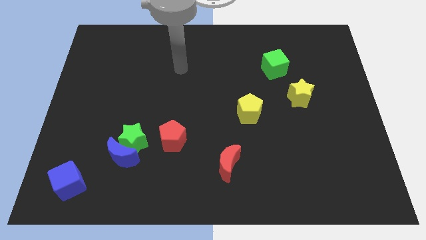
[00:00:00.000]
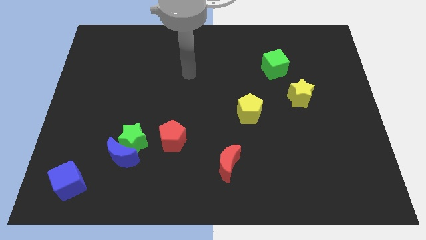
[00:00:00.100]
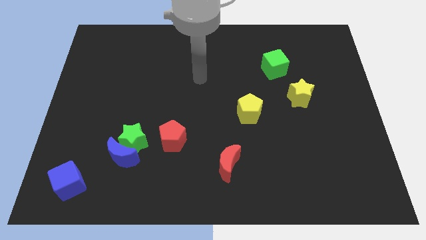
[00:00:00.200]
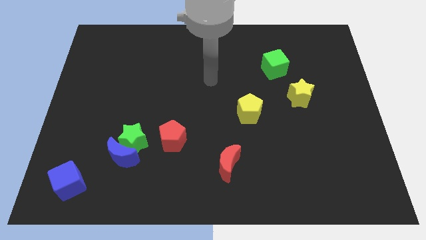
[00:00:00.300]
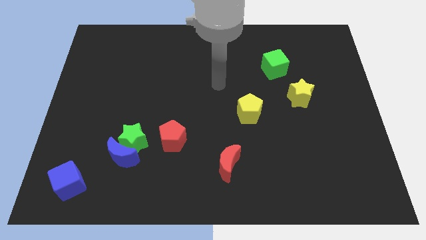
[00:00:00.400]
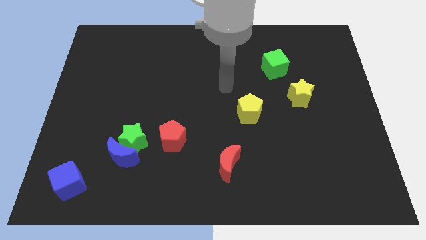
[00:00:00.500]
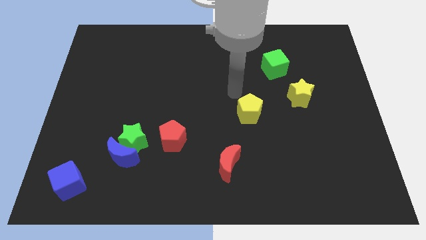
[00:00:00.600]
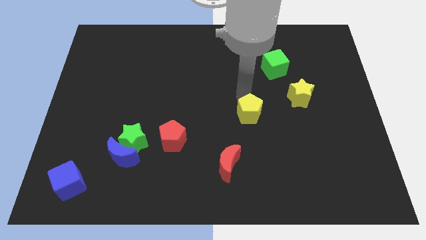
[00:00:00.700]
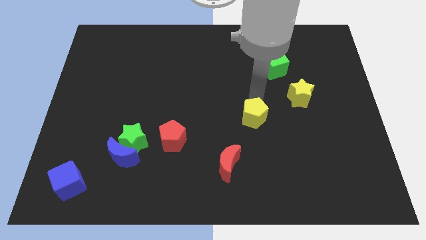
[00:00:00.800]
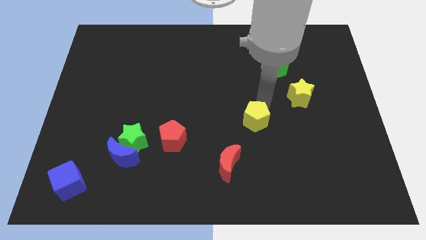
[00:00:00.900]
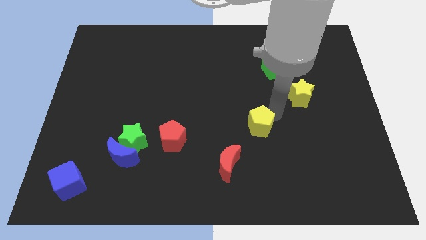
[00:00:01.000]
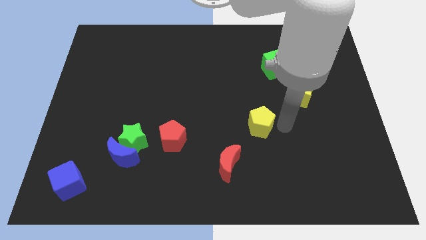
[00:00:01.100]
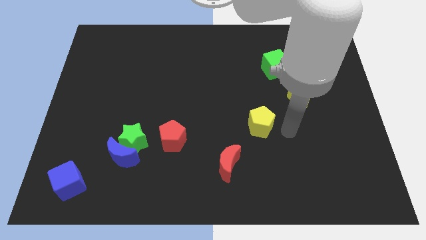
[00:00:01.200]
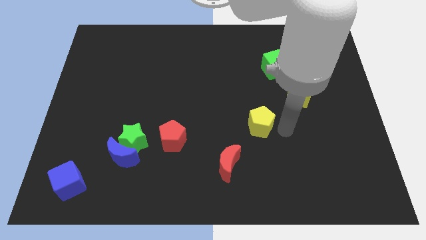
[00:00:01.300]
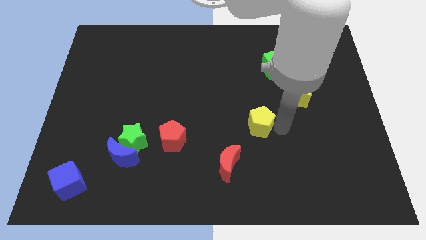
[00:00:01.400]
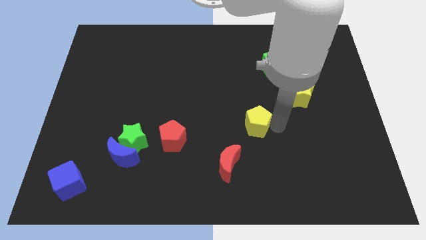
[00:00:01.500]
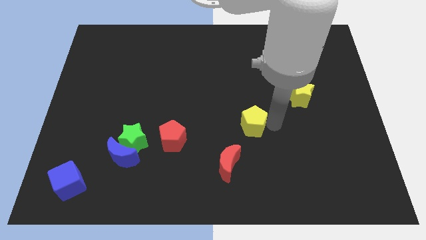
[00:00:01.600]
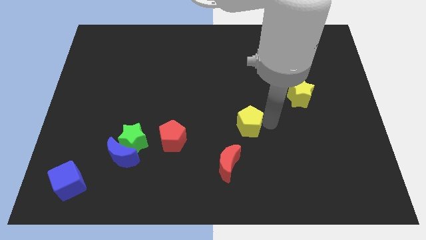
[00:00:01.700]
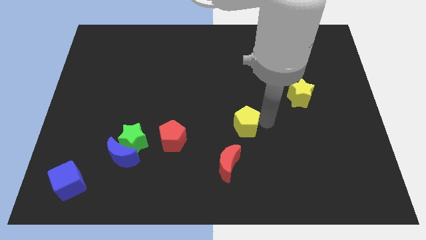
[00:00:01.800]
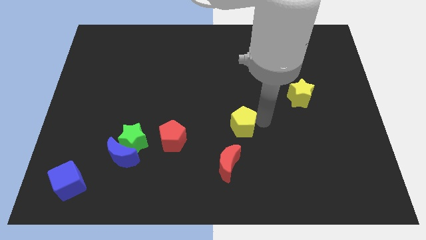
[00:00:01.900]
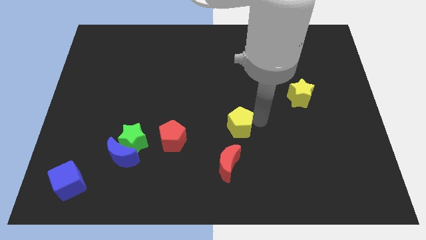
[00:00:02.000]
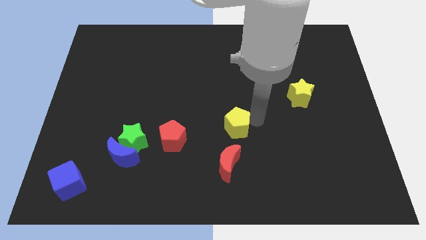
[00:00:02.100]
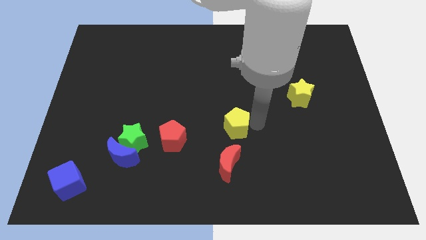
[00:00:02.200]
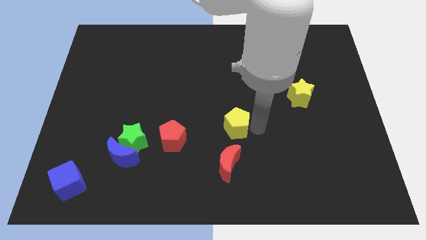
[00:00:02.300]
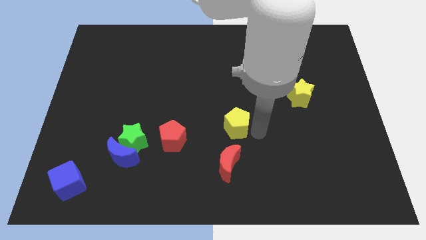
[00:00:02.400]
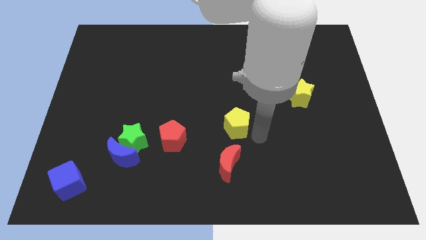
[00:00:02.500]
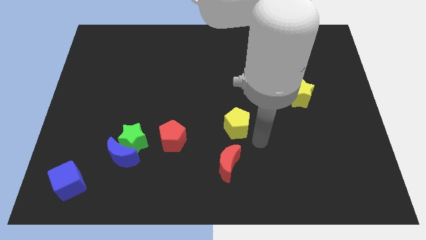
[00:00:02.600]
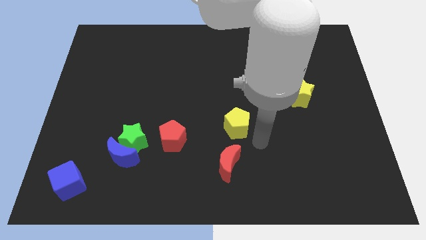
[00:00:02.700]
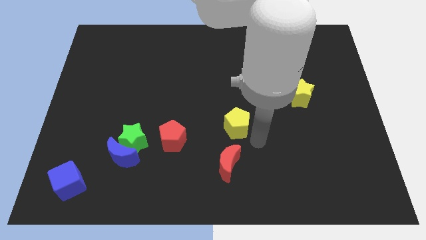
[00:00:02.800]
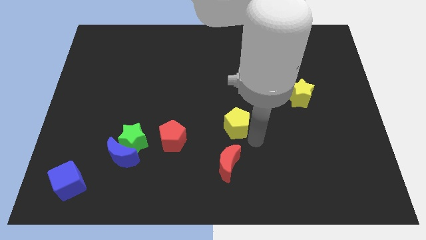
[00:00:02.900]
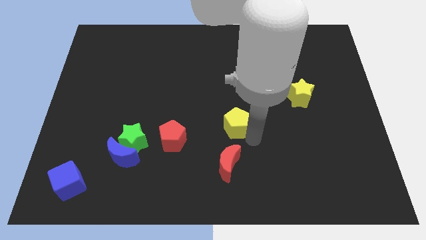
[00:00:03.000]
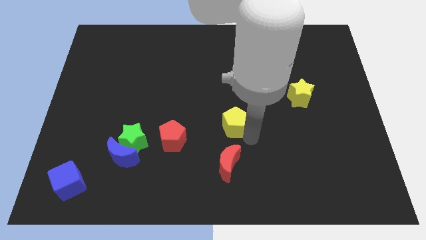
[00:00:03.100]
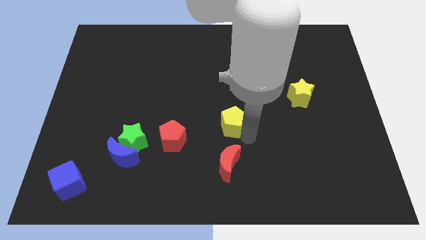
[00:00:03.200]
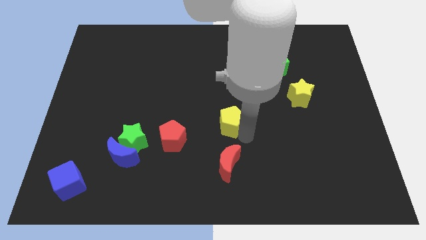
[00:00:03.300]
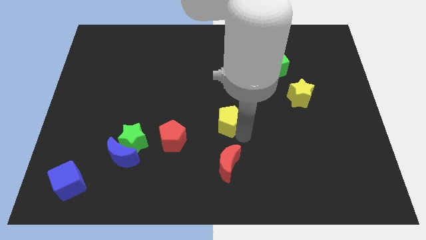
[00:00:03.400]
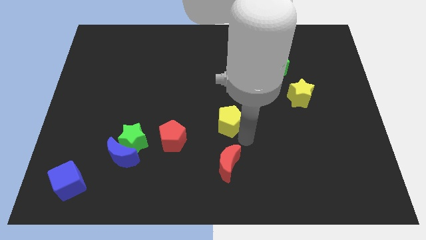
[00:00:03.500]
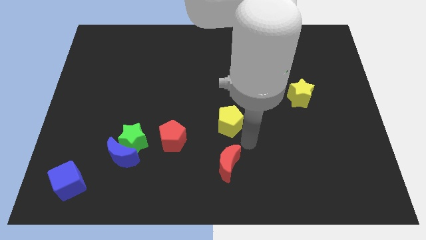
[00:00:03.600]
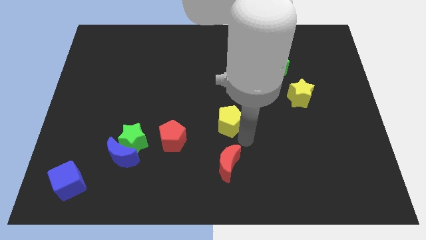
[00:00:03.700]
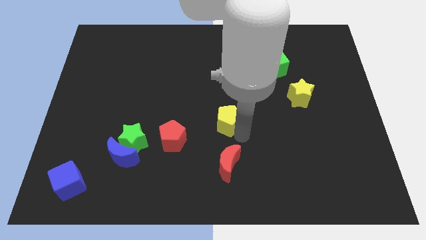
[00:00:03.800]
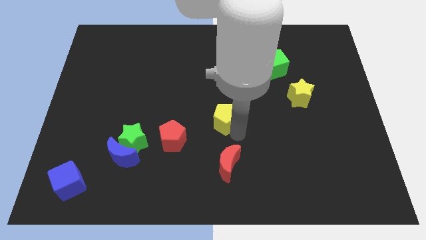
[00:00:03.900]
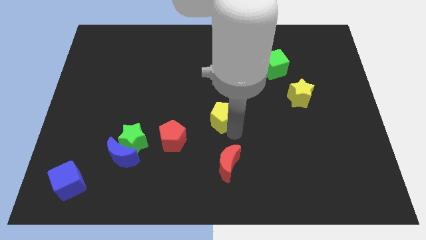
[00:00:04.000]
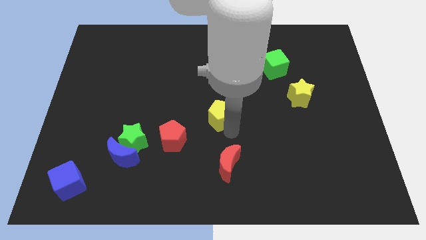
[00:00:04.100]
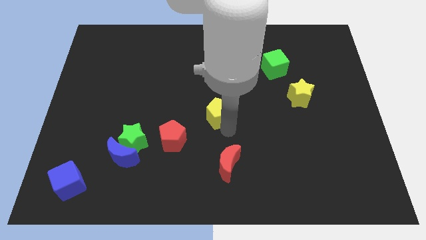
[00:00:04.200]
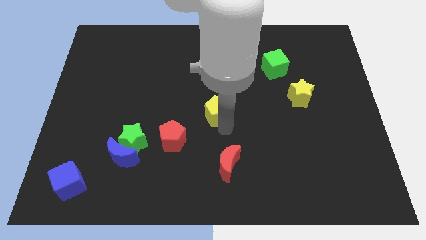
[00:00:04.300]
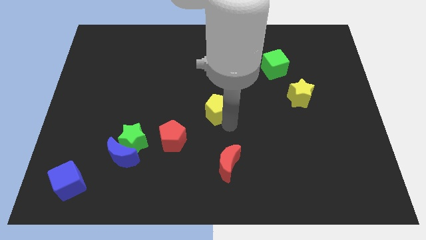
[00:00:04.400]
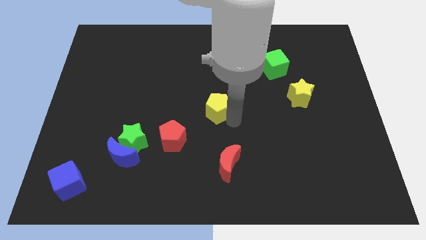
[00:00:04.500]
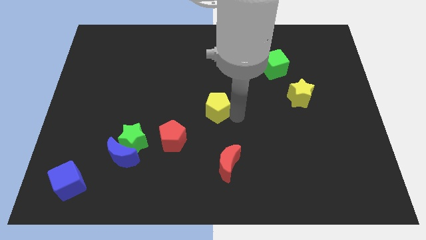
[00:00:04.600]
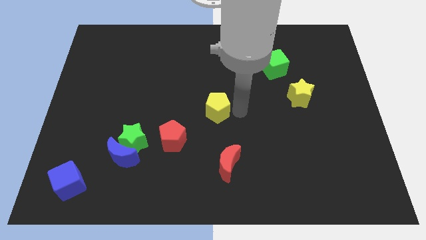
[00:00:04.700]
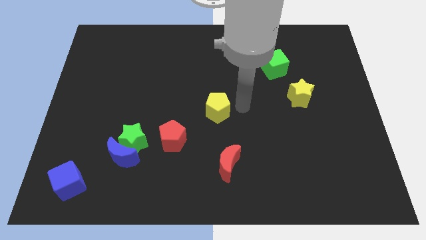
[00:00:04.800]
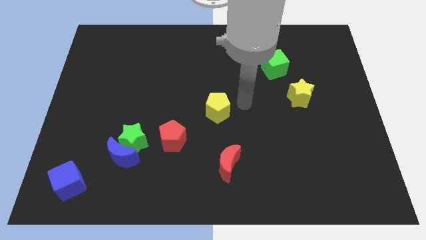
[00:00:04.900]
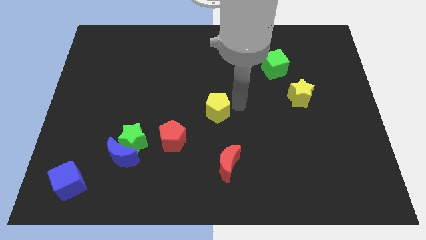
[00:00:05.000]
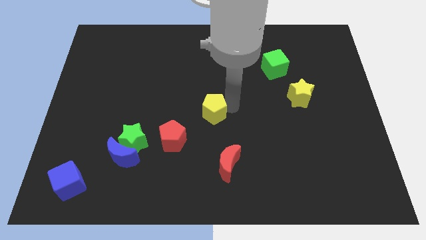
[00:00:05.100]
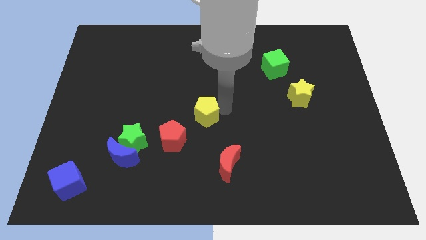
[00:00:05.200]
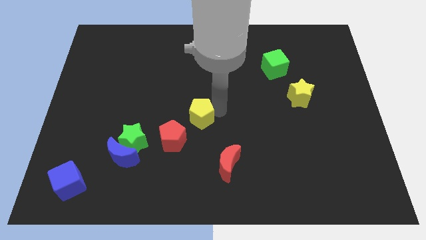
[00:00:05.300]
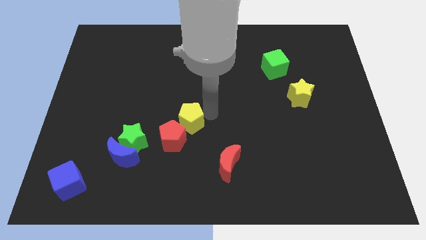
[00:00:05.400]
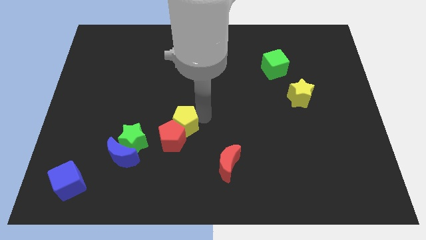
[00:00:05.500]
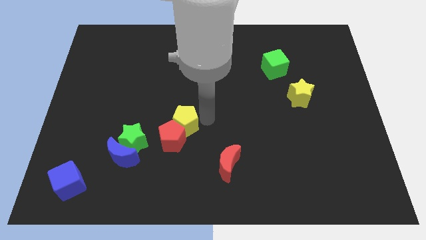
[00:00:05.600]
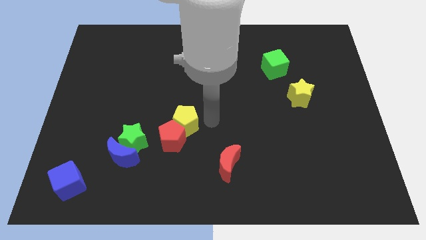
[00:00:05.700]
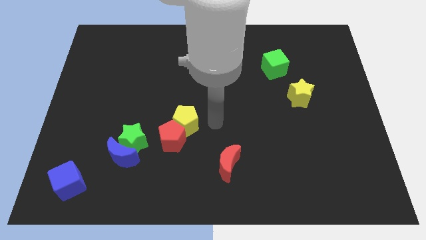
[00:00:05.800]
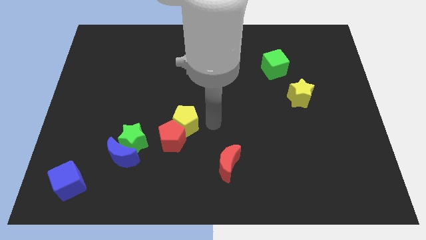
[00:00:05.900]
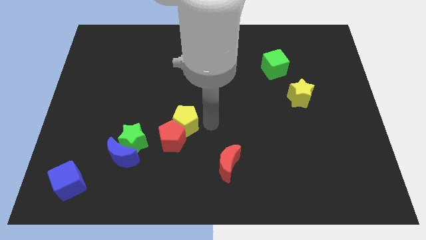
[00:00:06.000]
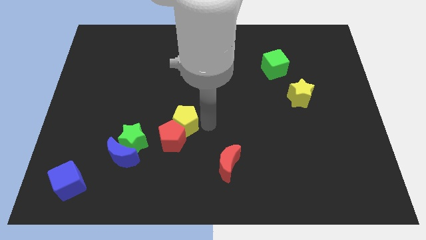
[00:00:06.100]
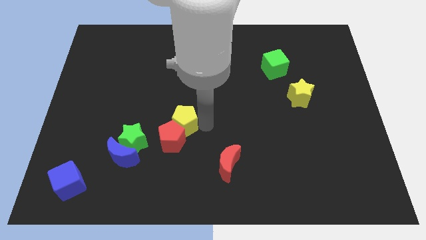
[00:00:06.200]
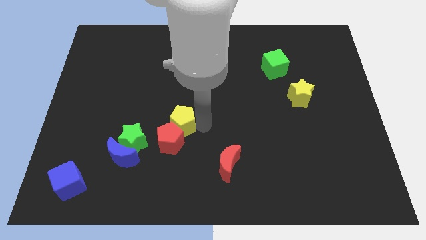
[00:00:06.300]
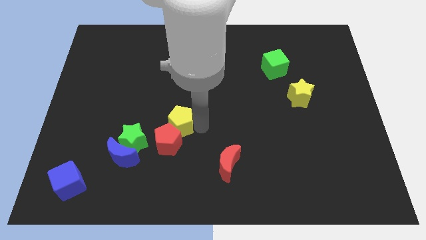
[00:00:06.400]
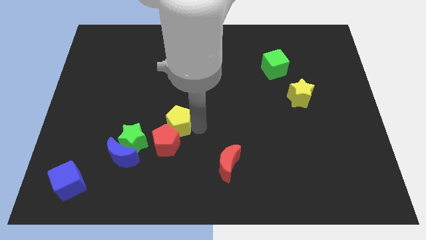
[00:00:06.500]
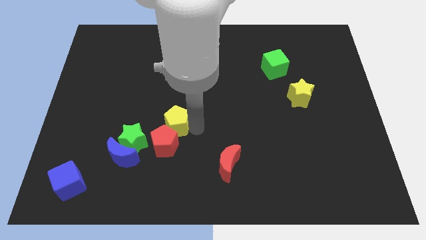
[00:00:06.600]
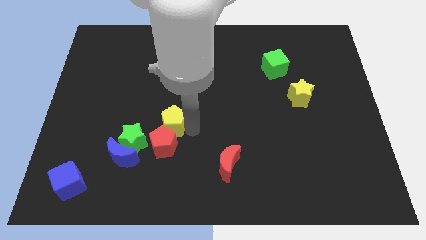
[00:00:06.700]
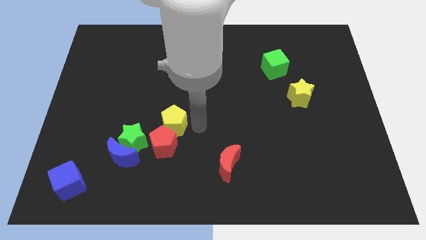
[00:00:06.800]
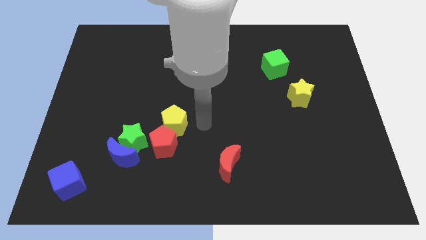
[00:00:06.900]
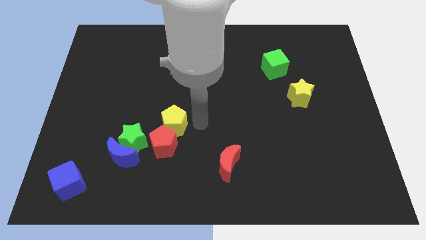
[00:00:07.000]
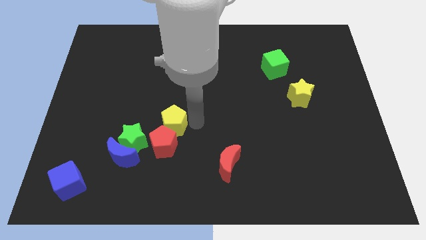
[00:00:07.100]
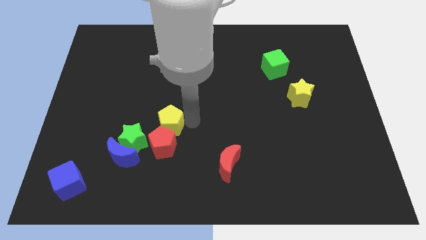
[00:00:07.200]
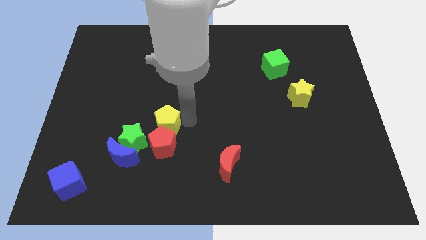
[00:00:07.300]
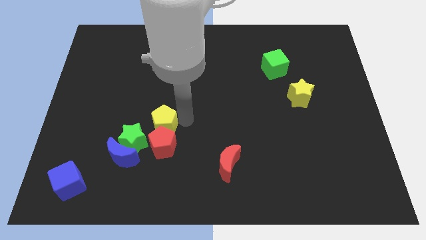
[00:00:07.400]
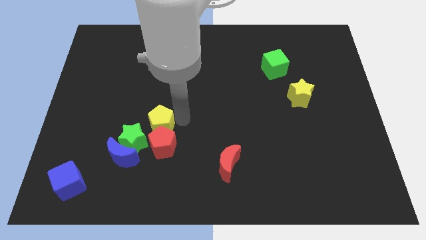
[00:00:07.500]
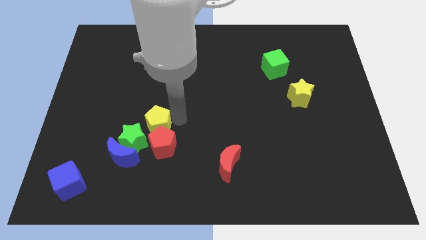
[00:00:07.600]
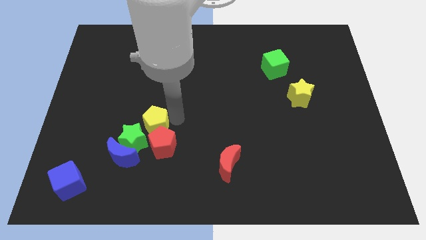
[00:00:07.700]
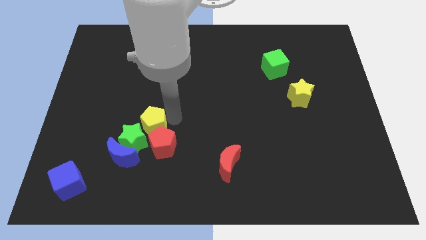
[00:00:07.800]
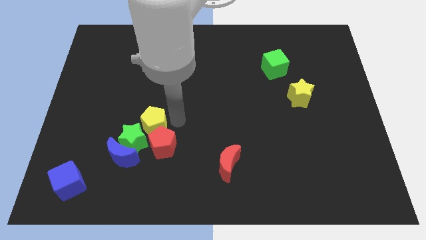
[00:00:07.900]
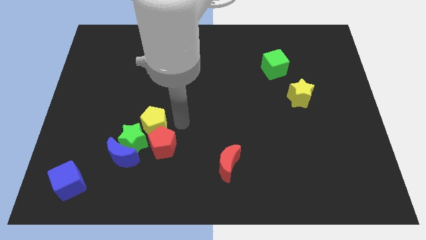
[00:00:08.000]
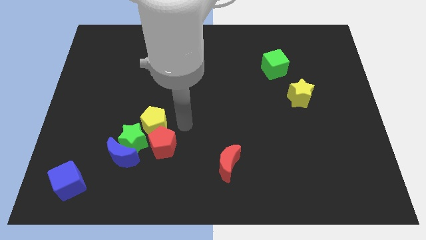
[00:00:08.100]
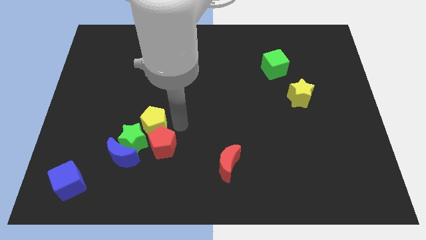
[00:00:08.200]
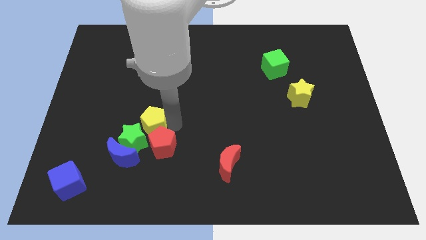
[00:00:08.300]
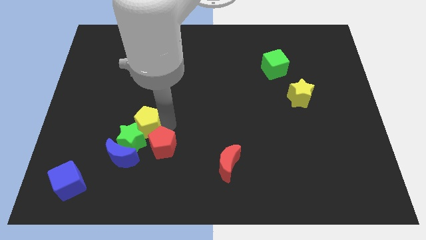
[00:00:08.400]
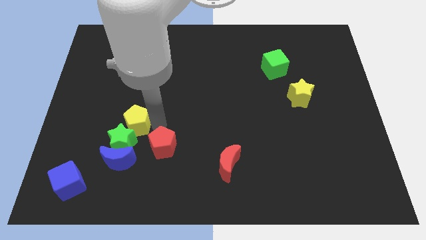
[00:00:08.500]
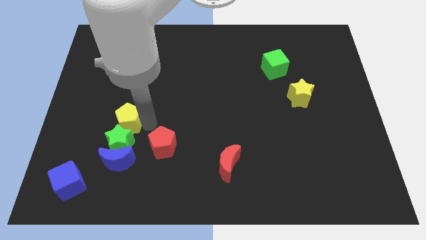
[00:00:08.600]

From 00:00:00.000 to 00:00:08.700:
push the yellow pentagon to the top left side of the green star
